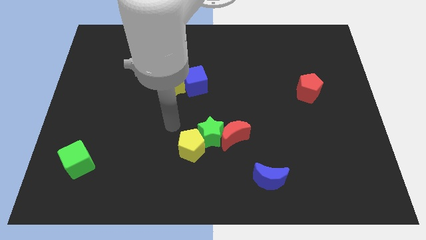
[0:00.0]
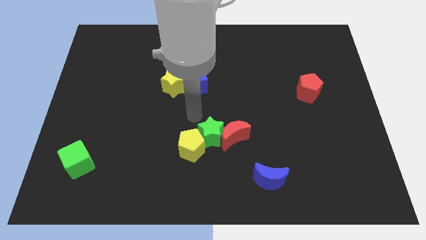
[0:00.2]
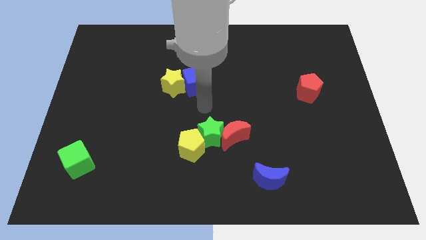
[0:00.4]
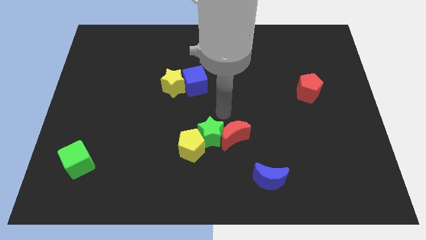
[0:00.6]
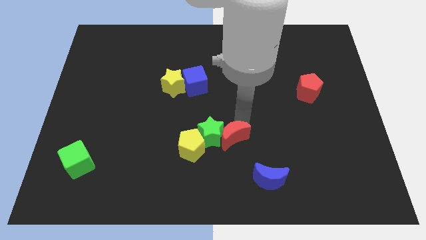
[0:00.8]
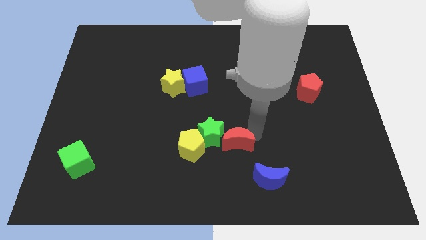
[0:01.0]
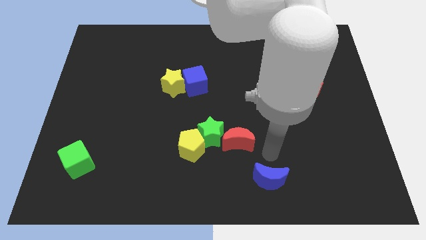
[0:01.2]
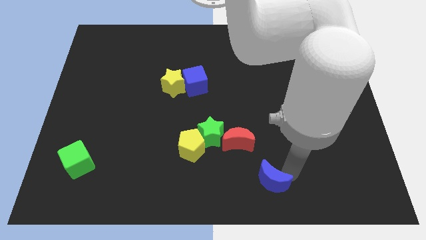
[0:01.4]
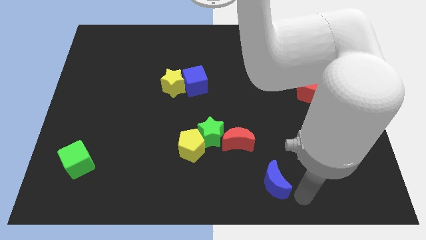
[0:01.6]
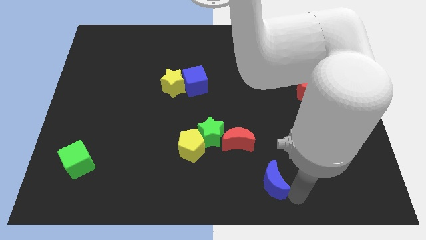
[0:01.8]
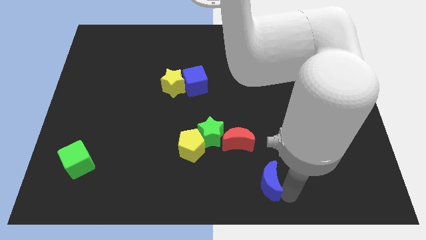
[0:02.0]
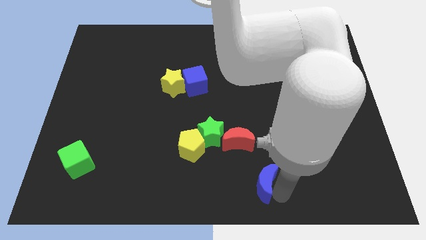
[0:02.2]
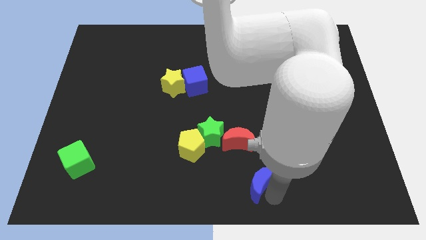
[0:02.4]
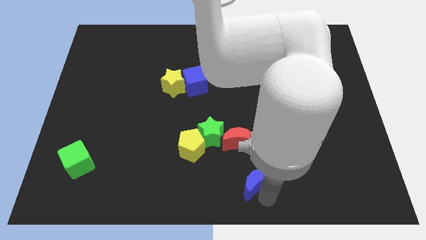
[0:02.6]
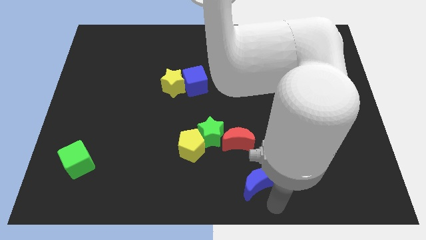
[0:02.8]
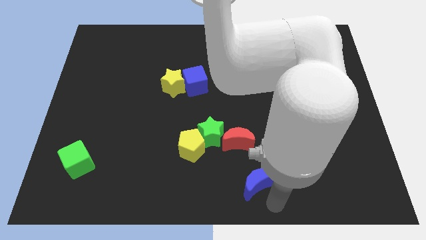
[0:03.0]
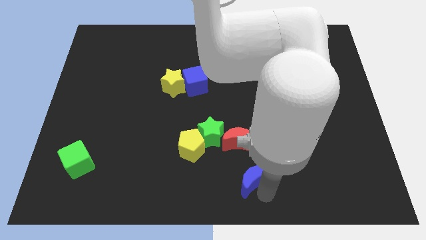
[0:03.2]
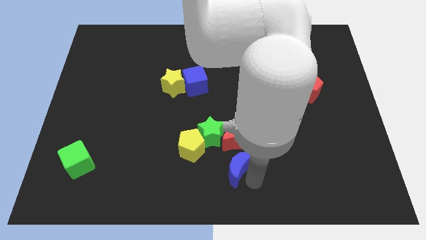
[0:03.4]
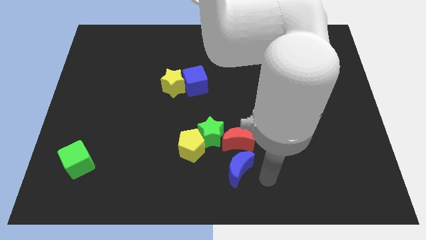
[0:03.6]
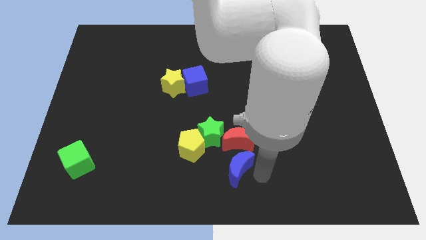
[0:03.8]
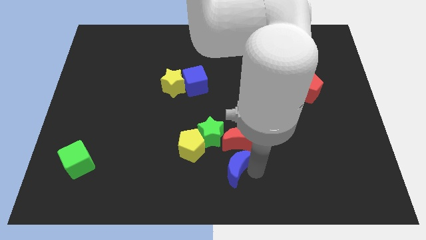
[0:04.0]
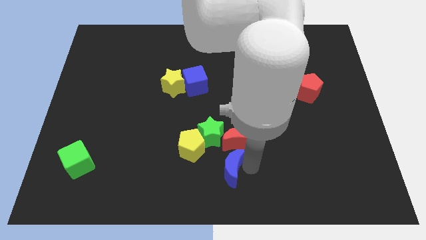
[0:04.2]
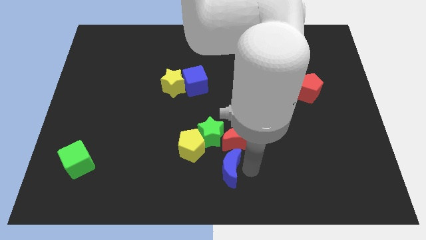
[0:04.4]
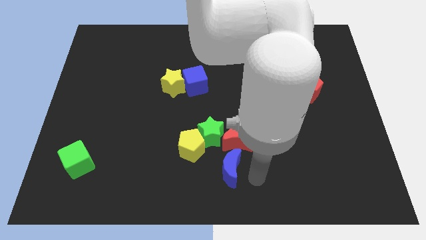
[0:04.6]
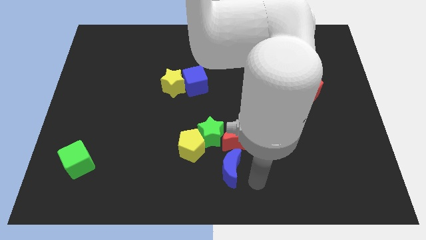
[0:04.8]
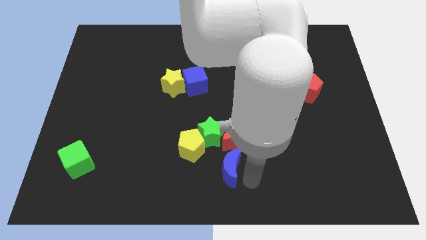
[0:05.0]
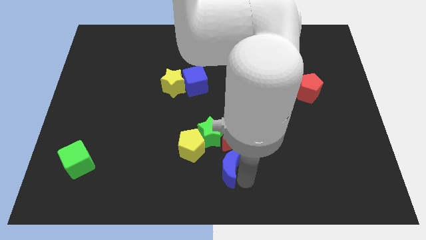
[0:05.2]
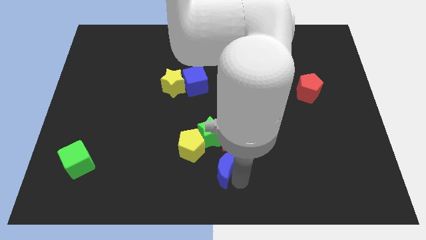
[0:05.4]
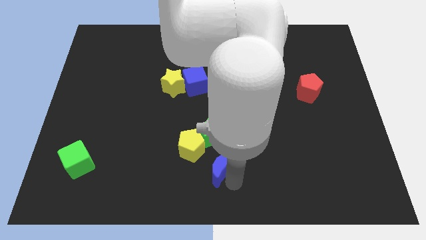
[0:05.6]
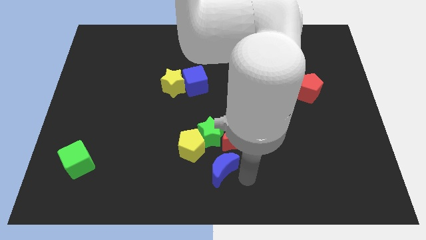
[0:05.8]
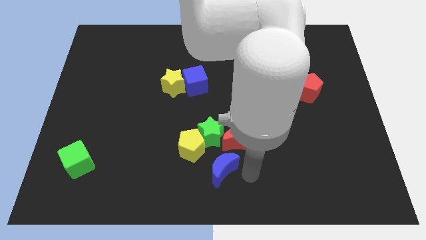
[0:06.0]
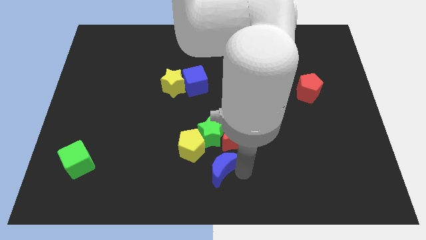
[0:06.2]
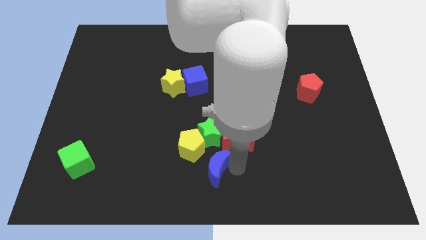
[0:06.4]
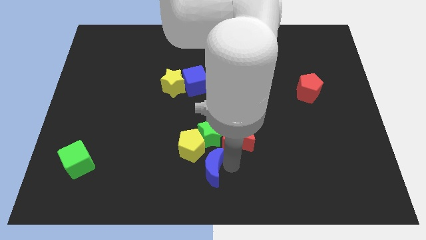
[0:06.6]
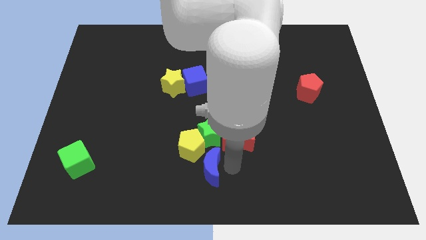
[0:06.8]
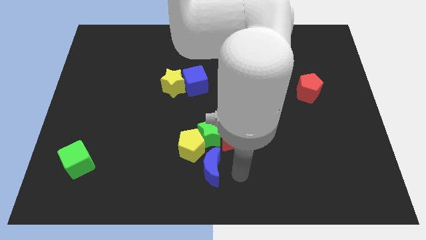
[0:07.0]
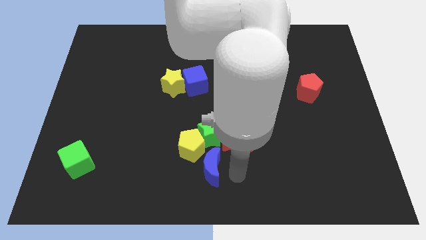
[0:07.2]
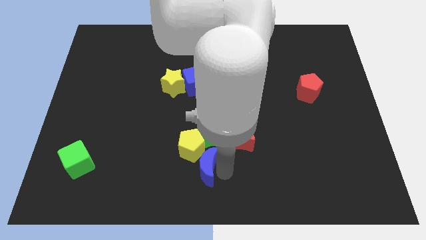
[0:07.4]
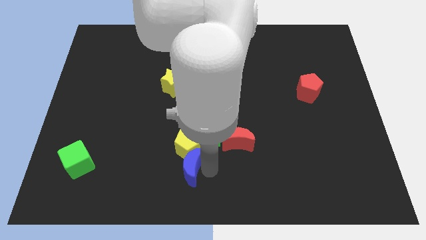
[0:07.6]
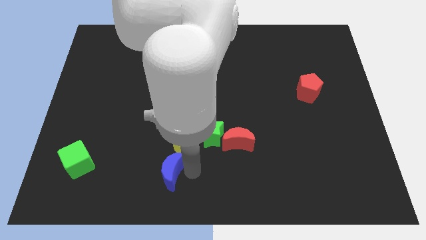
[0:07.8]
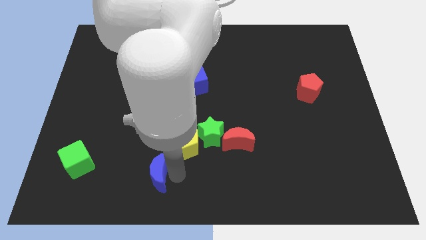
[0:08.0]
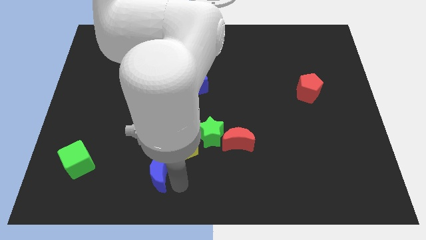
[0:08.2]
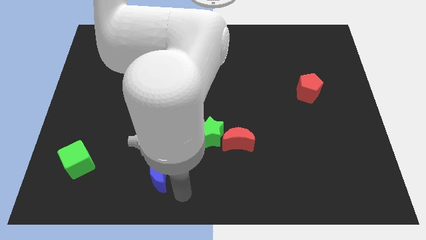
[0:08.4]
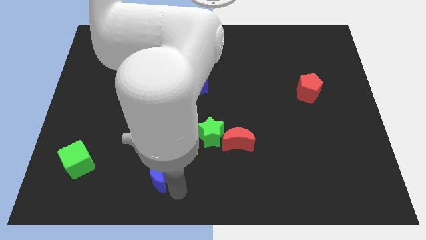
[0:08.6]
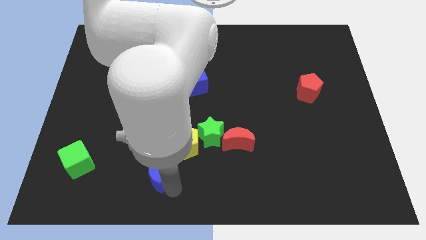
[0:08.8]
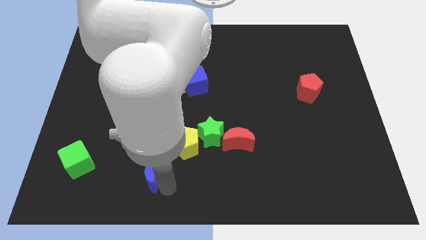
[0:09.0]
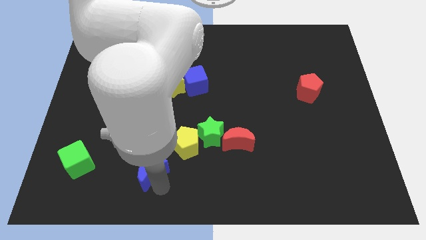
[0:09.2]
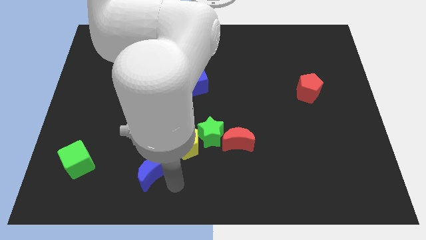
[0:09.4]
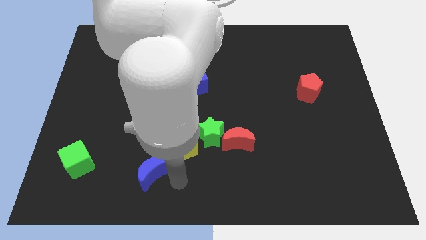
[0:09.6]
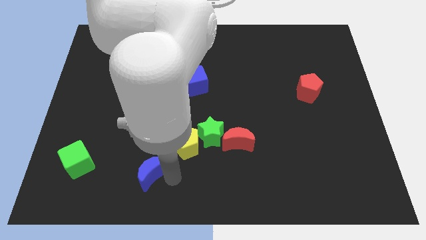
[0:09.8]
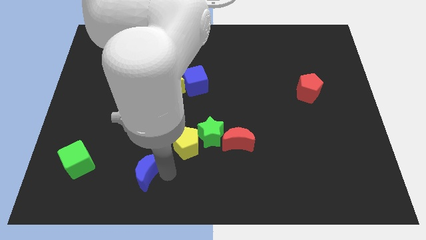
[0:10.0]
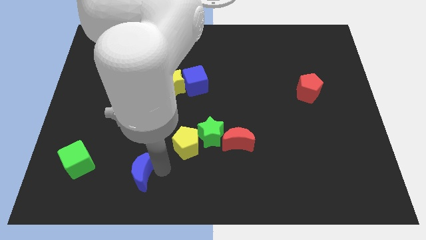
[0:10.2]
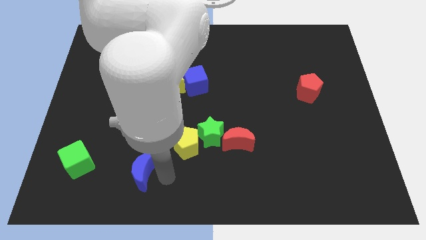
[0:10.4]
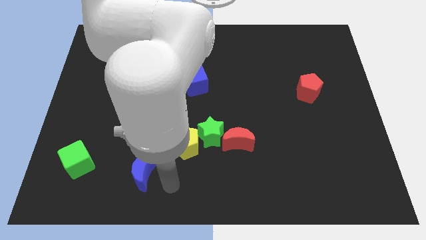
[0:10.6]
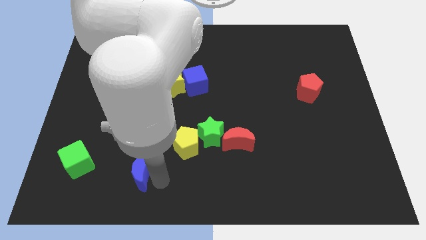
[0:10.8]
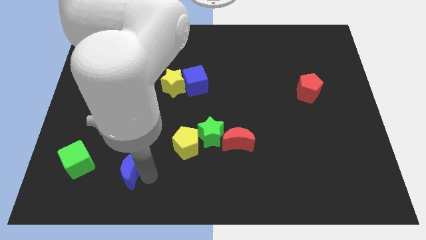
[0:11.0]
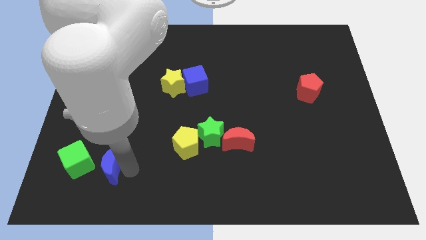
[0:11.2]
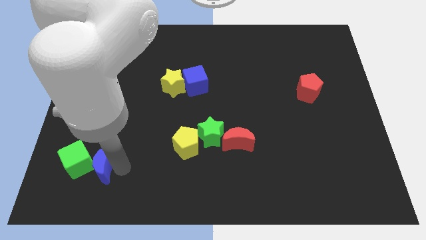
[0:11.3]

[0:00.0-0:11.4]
push the blue moon next to the green cube
